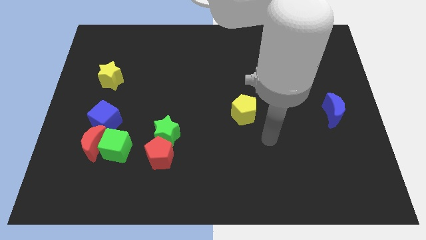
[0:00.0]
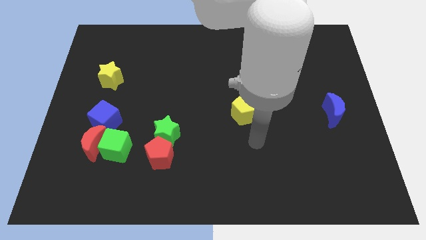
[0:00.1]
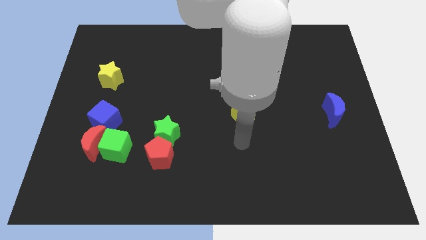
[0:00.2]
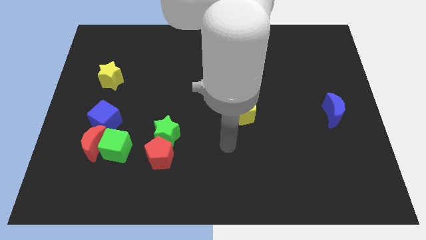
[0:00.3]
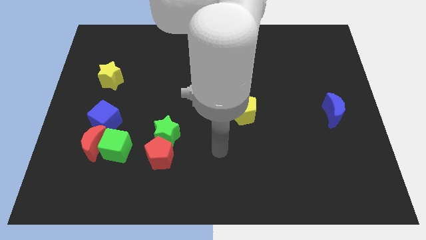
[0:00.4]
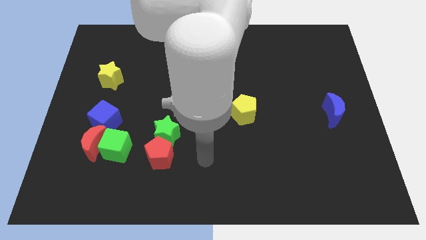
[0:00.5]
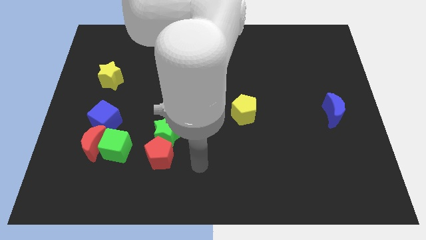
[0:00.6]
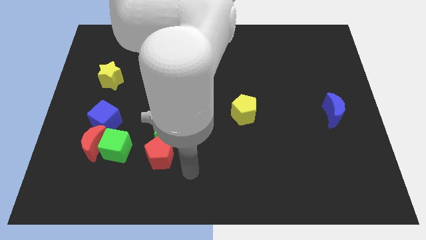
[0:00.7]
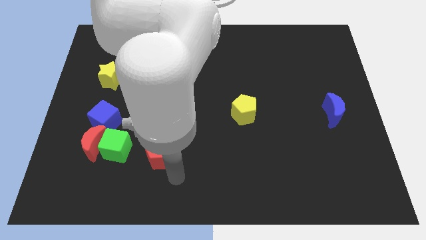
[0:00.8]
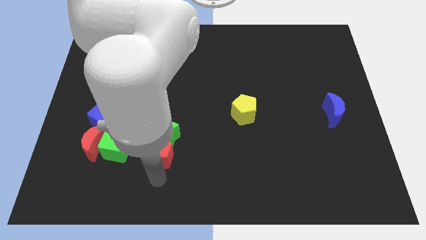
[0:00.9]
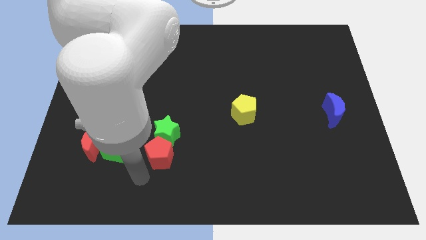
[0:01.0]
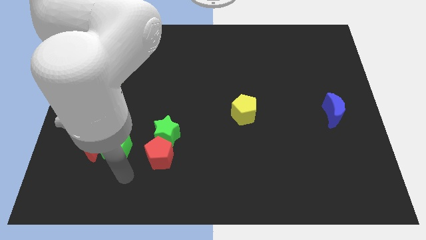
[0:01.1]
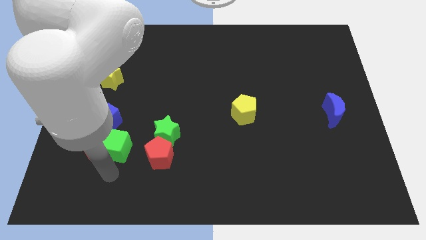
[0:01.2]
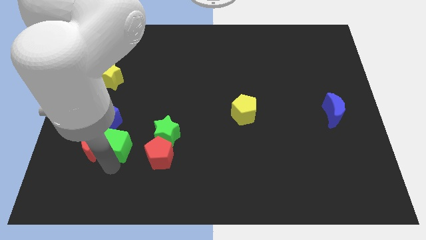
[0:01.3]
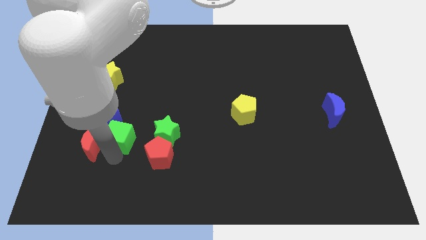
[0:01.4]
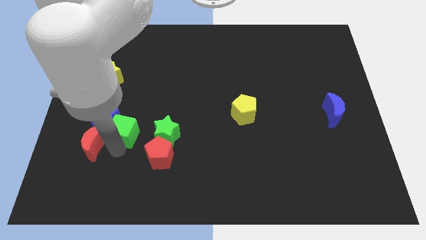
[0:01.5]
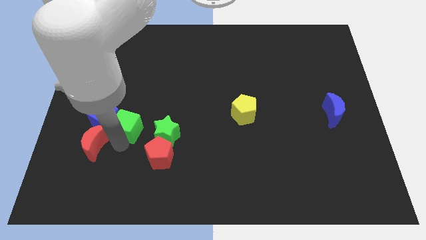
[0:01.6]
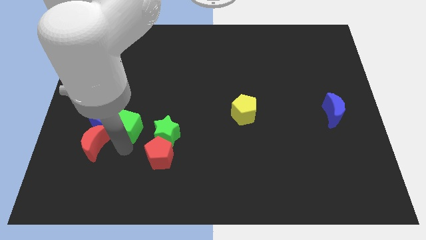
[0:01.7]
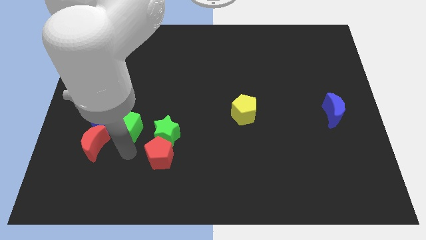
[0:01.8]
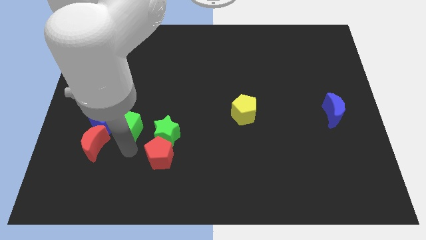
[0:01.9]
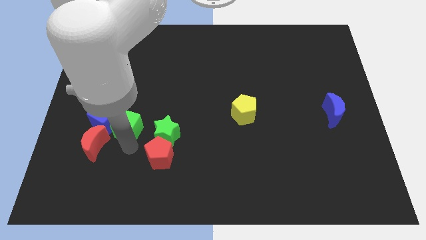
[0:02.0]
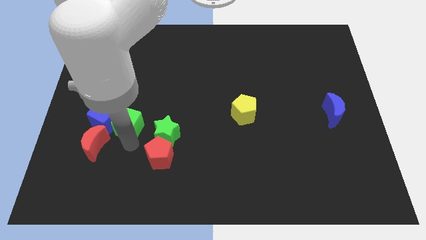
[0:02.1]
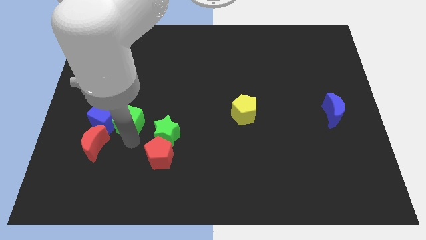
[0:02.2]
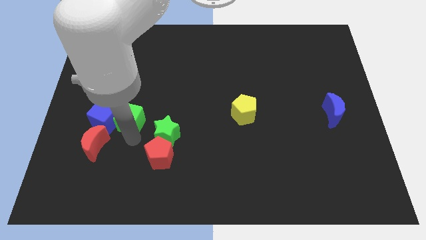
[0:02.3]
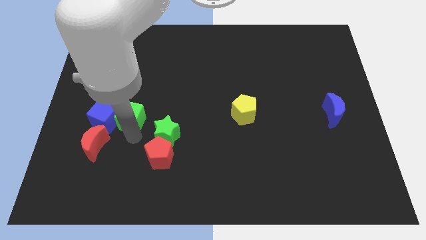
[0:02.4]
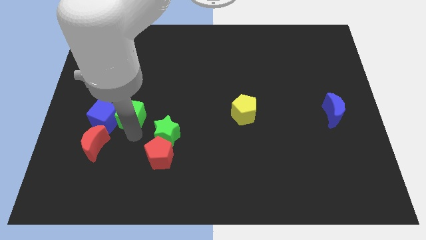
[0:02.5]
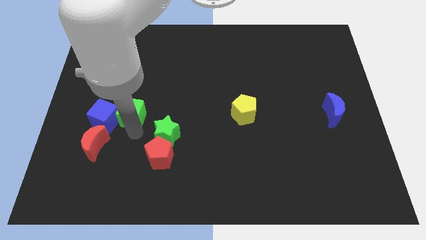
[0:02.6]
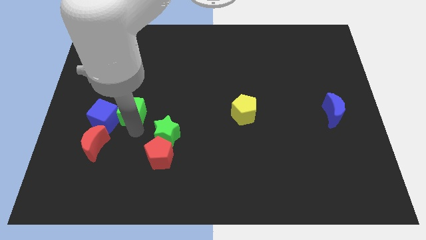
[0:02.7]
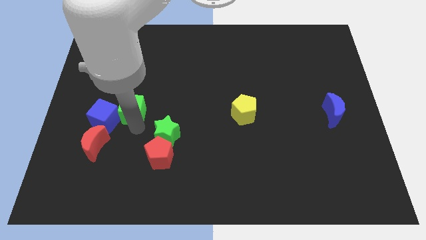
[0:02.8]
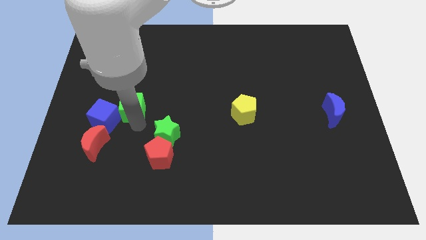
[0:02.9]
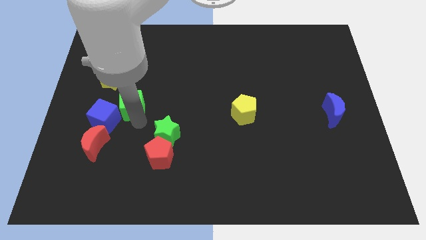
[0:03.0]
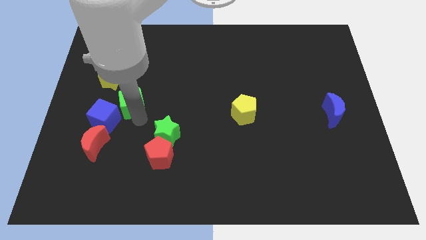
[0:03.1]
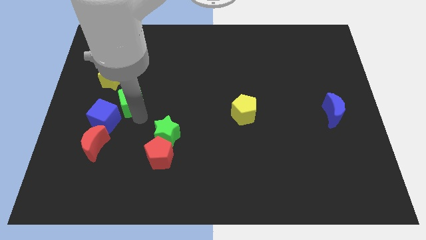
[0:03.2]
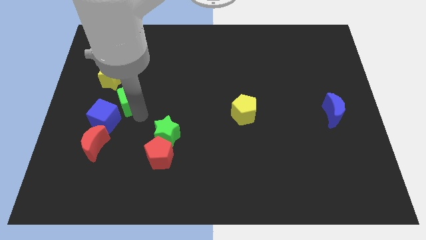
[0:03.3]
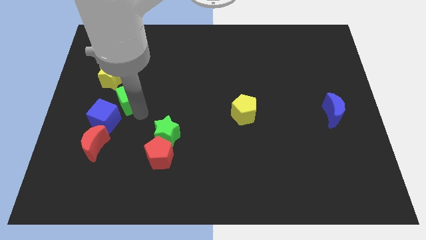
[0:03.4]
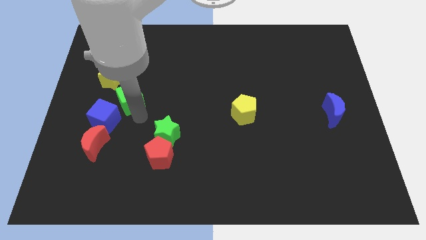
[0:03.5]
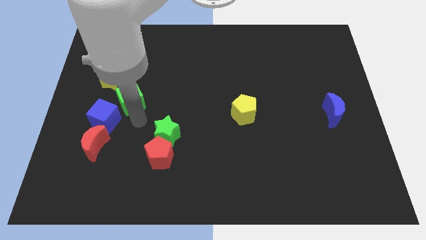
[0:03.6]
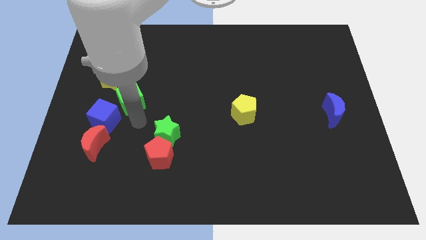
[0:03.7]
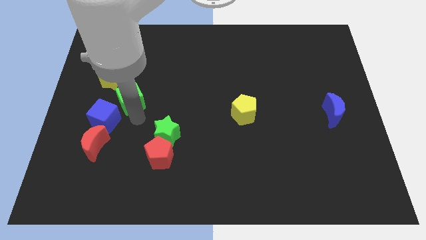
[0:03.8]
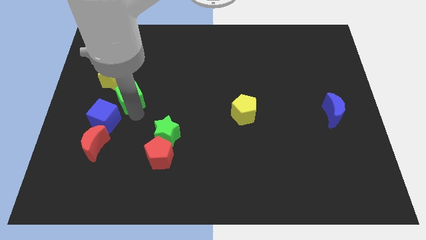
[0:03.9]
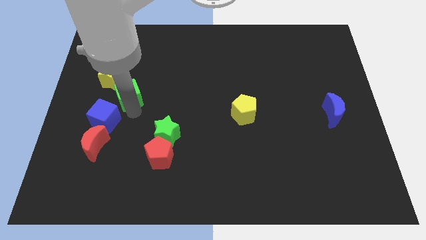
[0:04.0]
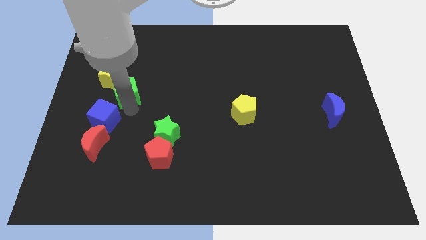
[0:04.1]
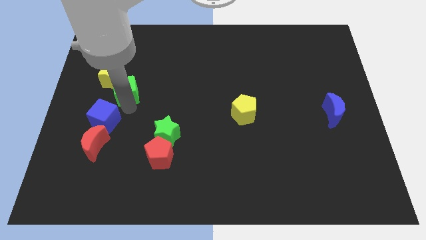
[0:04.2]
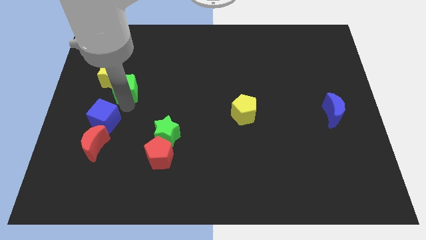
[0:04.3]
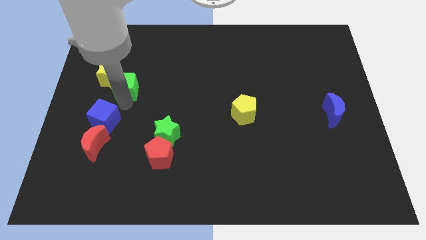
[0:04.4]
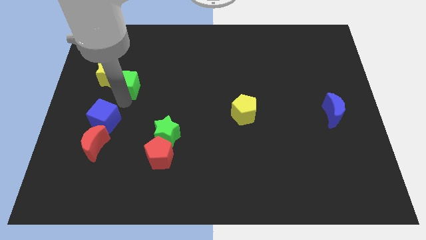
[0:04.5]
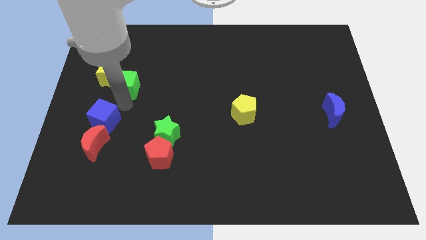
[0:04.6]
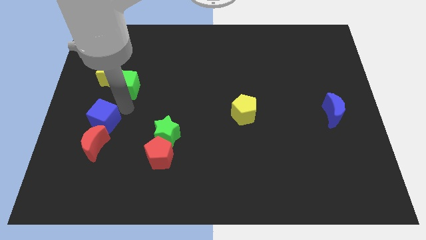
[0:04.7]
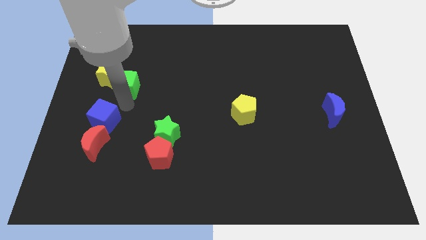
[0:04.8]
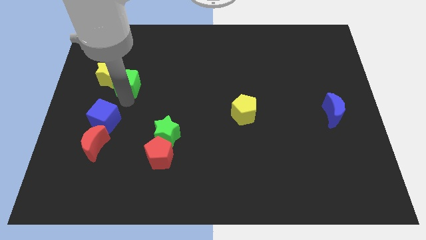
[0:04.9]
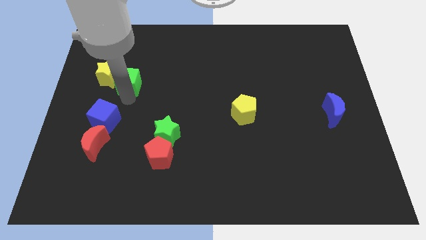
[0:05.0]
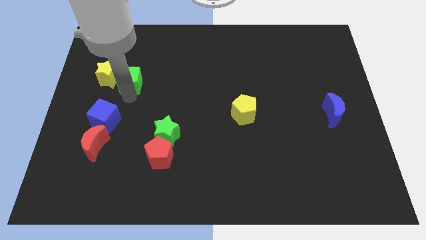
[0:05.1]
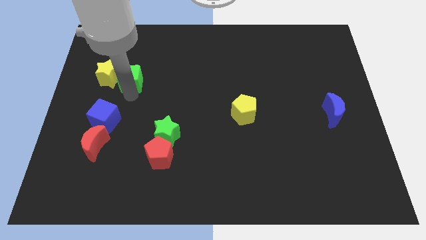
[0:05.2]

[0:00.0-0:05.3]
put the green cube to the top right of the yellow star
